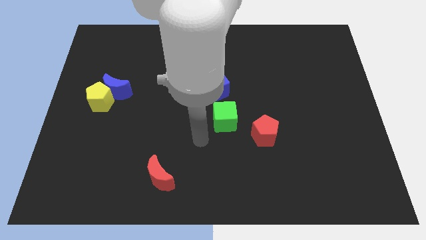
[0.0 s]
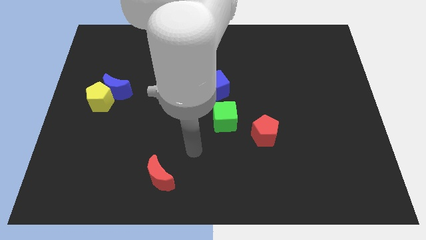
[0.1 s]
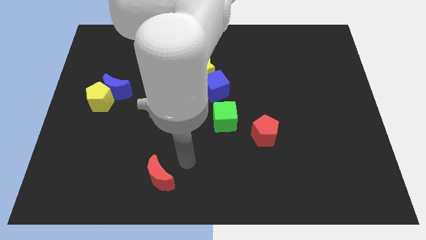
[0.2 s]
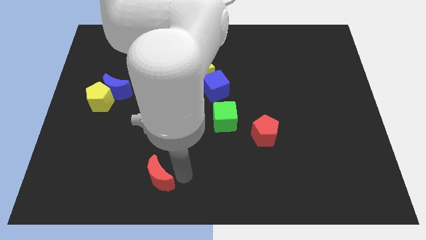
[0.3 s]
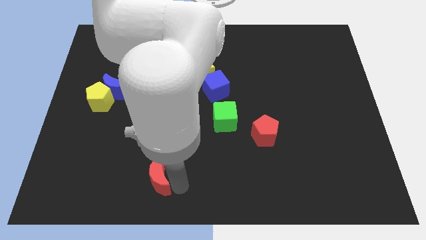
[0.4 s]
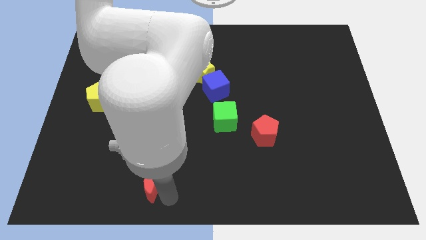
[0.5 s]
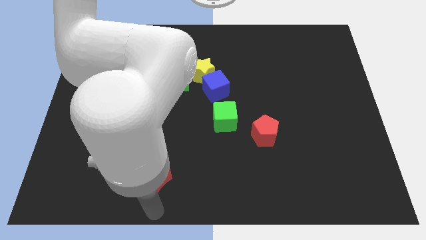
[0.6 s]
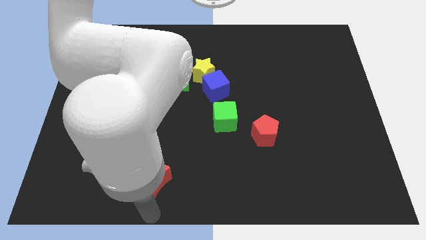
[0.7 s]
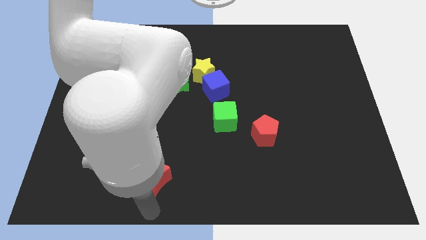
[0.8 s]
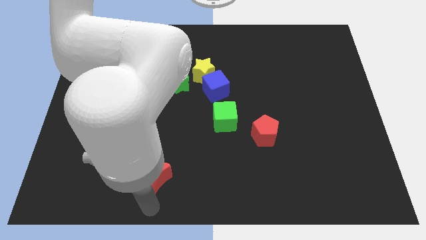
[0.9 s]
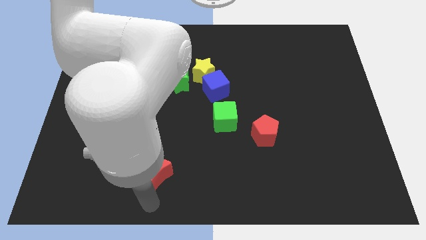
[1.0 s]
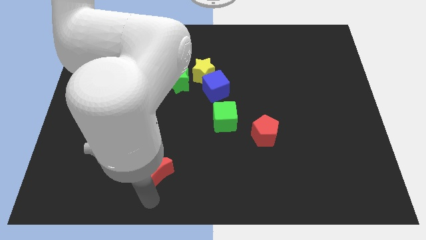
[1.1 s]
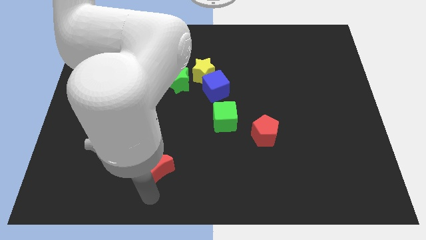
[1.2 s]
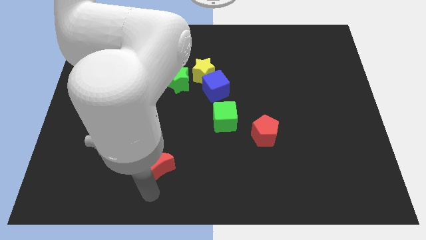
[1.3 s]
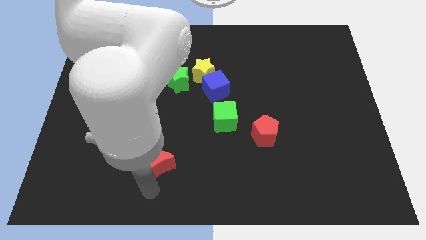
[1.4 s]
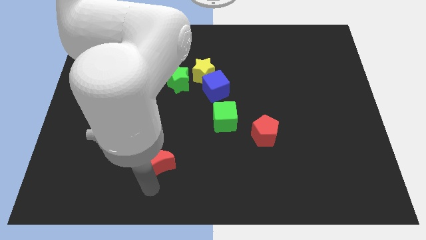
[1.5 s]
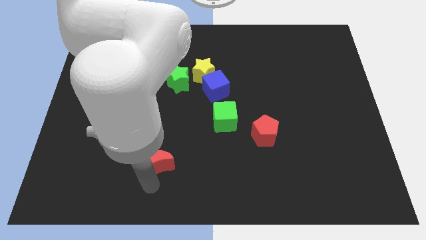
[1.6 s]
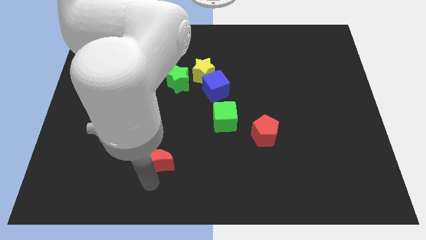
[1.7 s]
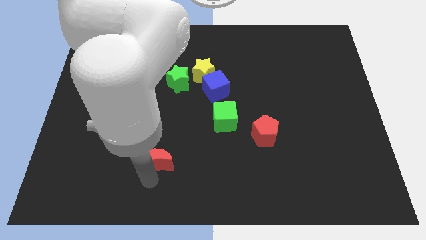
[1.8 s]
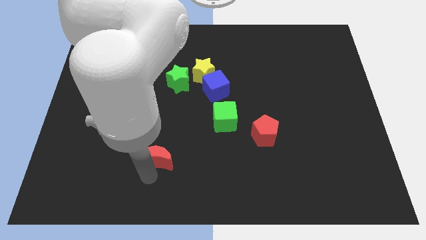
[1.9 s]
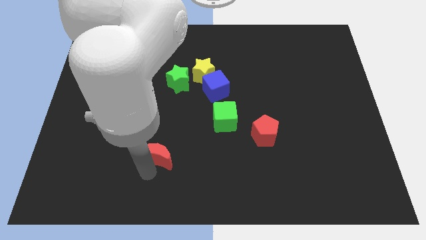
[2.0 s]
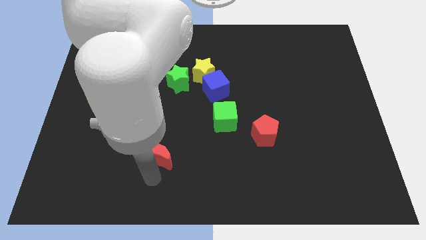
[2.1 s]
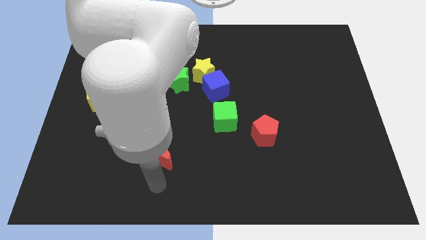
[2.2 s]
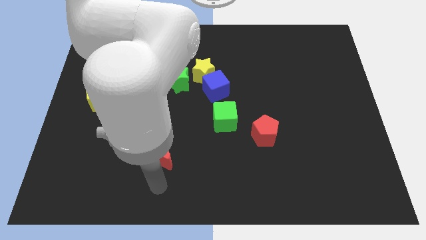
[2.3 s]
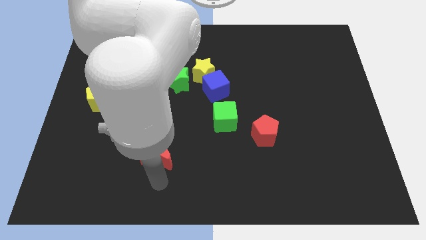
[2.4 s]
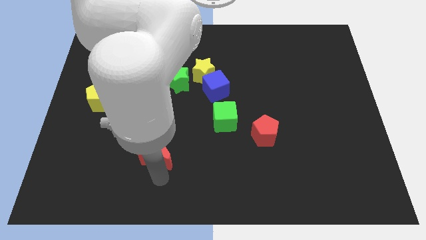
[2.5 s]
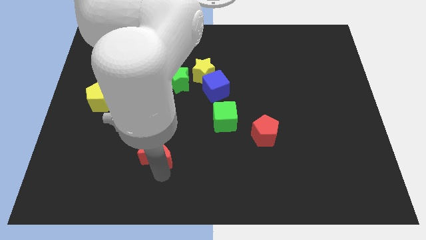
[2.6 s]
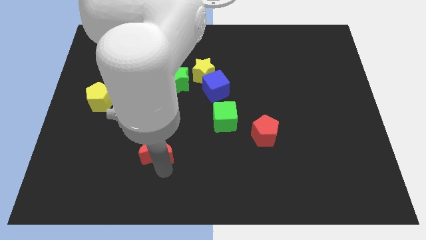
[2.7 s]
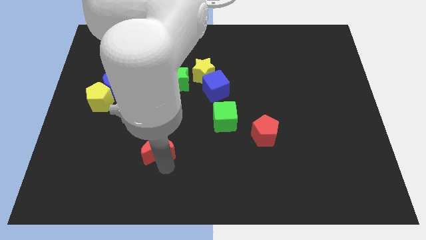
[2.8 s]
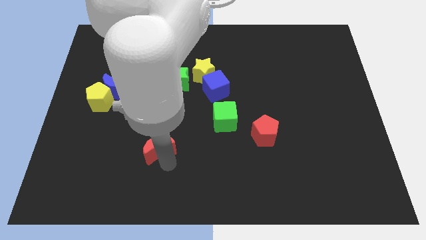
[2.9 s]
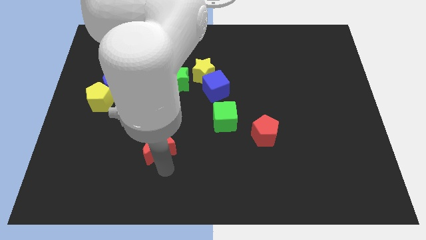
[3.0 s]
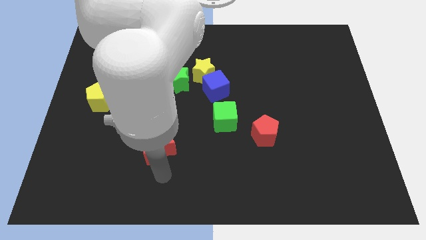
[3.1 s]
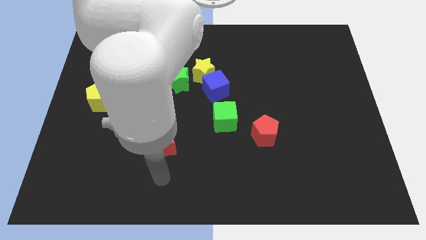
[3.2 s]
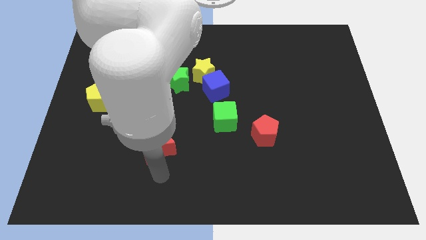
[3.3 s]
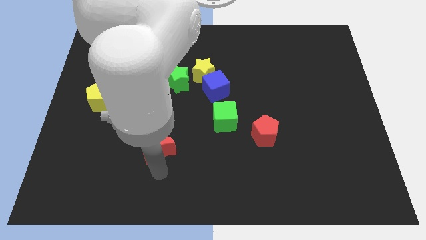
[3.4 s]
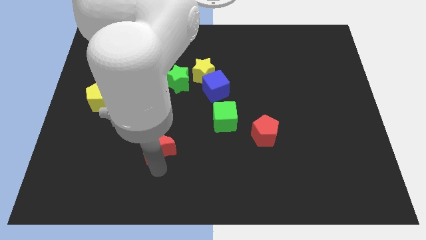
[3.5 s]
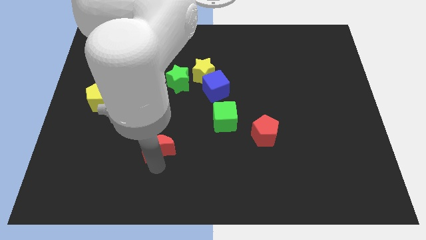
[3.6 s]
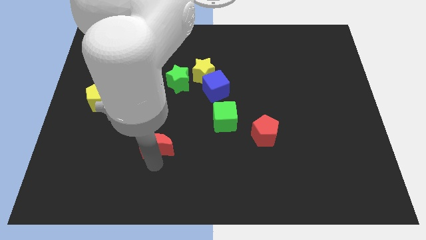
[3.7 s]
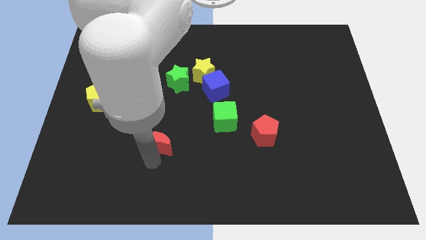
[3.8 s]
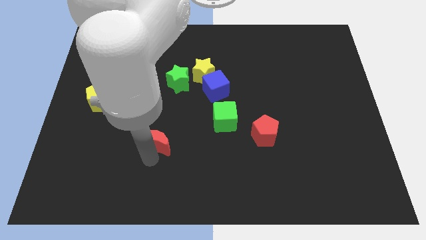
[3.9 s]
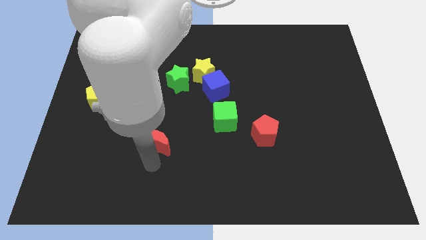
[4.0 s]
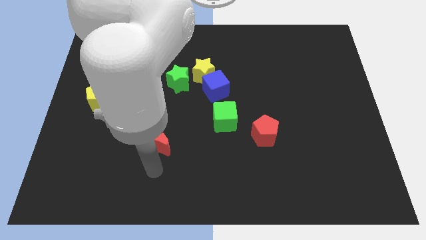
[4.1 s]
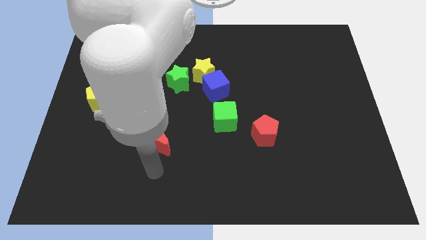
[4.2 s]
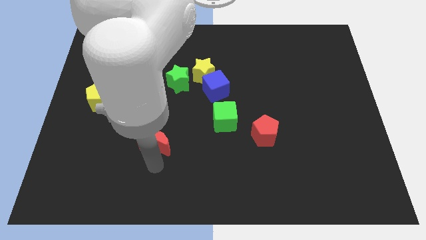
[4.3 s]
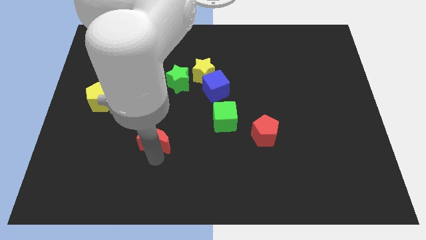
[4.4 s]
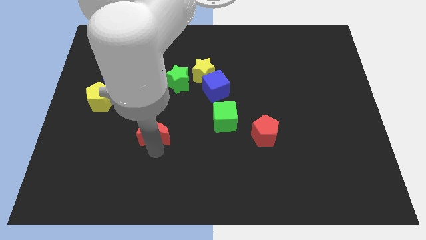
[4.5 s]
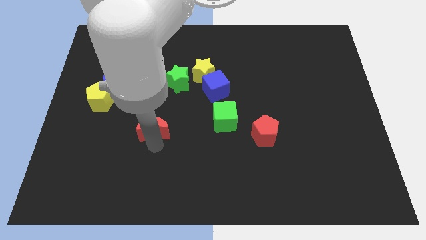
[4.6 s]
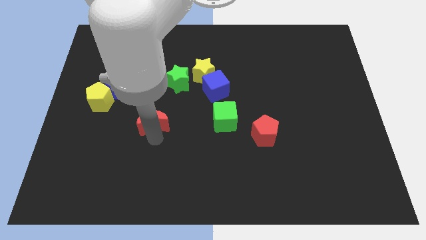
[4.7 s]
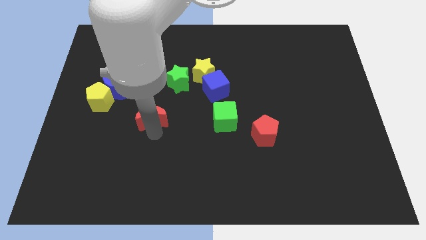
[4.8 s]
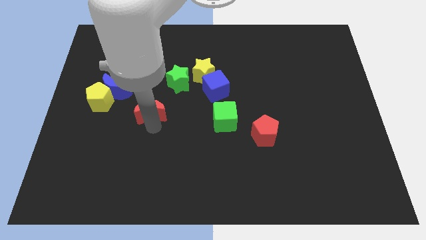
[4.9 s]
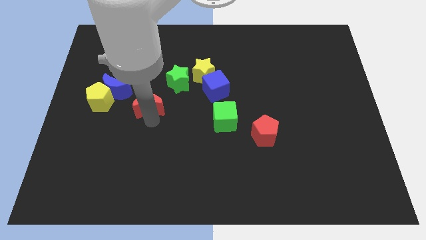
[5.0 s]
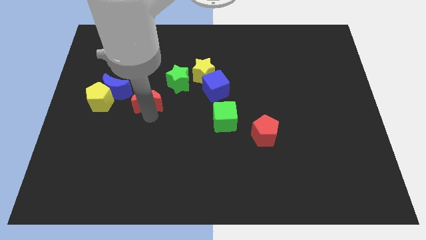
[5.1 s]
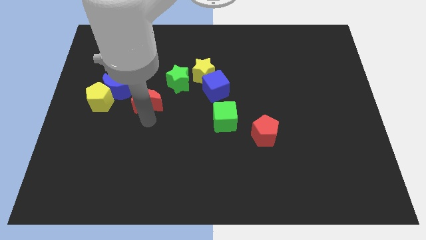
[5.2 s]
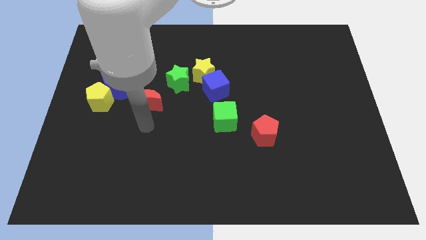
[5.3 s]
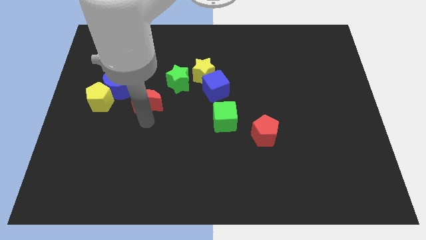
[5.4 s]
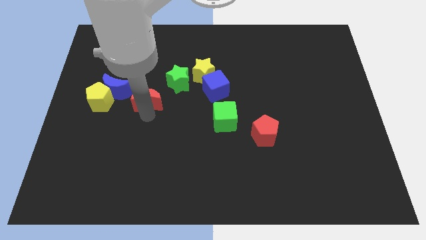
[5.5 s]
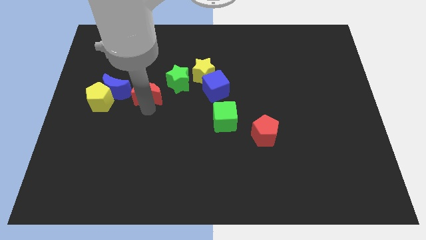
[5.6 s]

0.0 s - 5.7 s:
move the red moon up

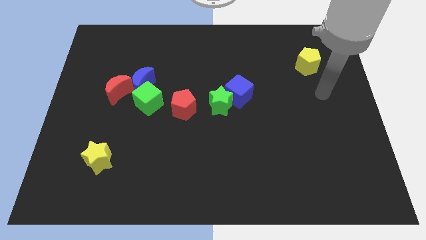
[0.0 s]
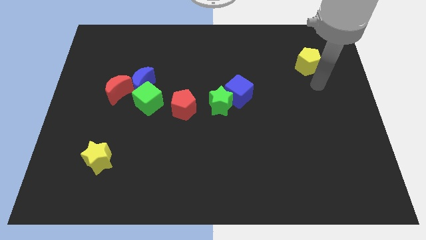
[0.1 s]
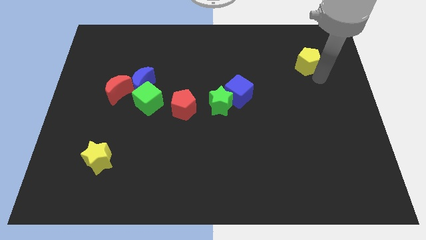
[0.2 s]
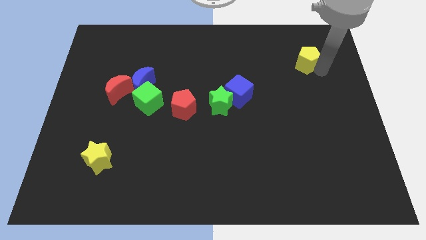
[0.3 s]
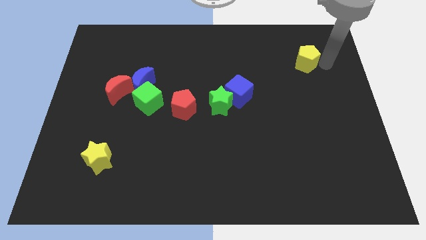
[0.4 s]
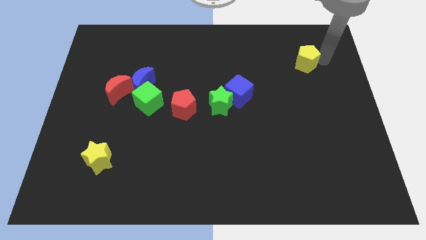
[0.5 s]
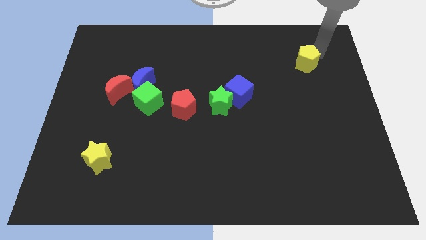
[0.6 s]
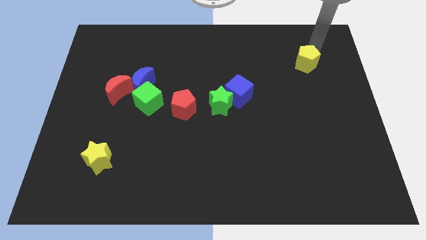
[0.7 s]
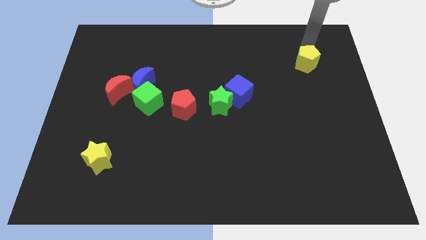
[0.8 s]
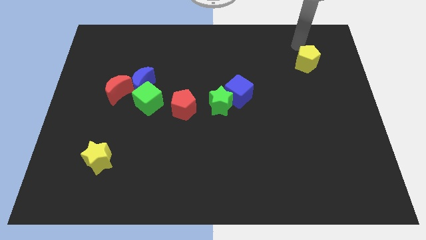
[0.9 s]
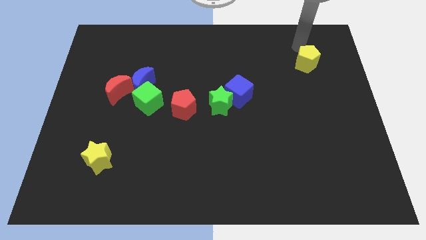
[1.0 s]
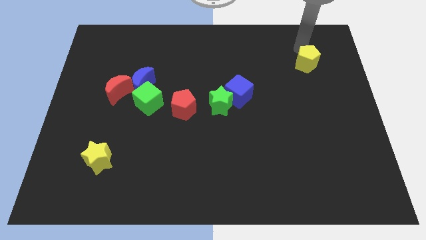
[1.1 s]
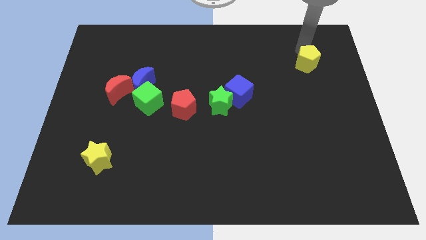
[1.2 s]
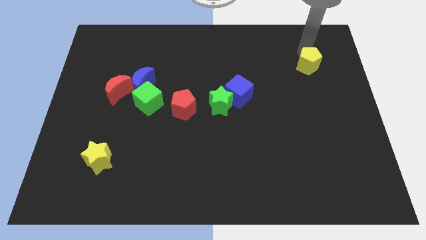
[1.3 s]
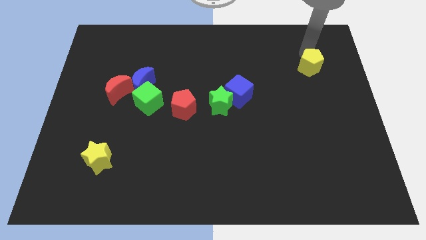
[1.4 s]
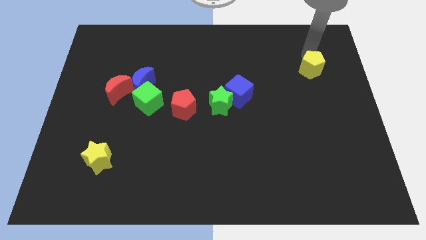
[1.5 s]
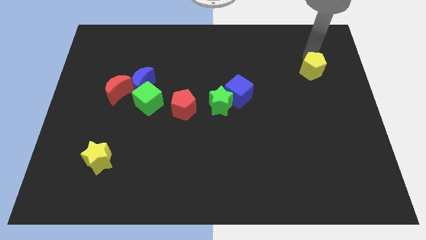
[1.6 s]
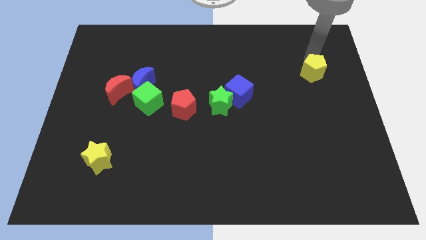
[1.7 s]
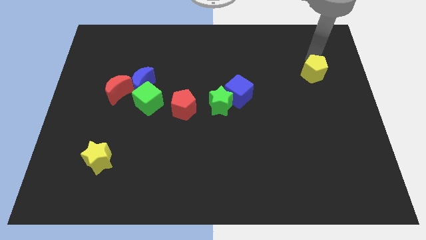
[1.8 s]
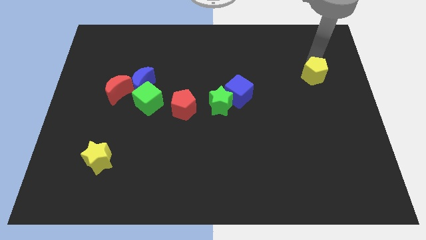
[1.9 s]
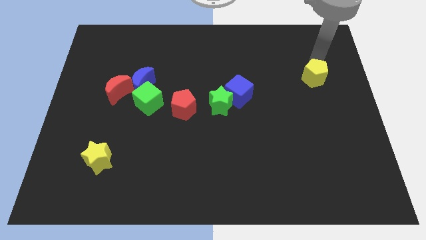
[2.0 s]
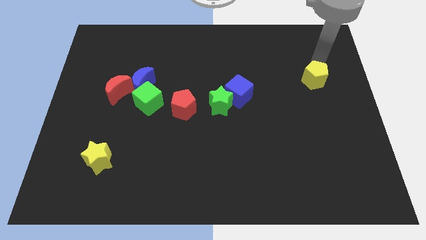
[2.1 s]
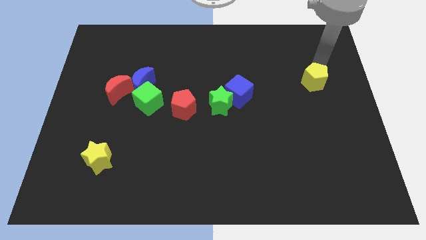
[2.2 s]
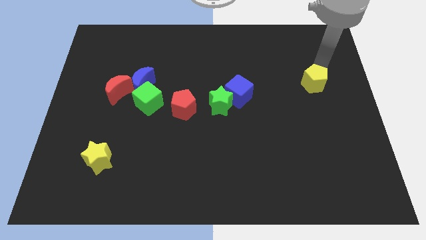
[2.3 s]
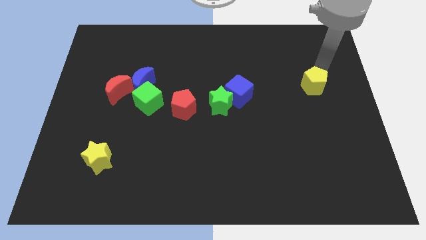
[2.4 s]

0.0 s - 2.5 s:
slightly move the yellow pentagon down
